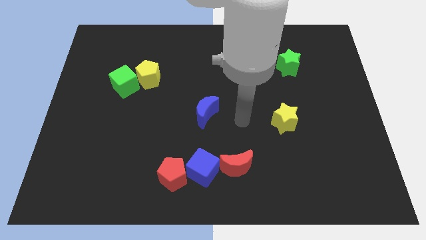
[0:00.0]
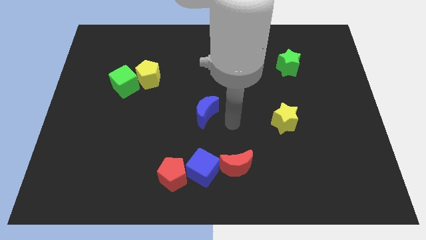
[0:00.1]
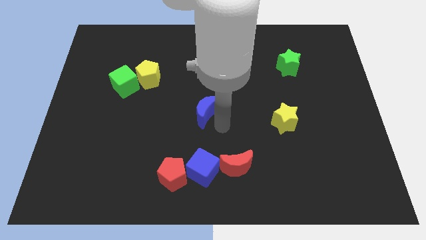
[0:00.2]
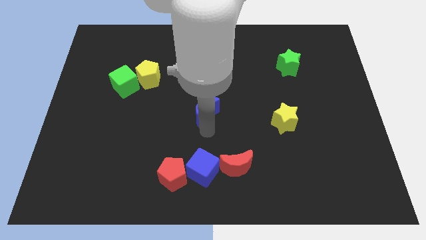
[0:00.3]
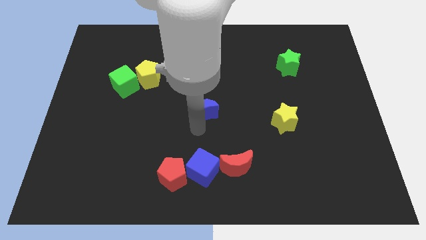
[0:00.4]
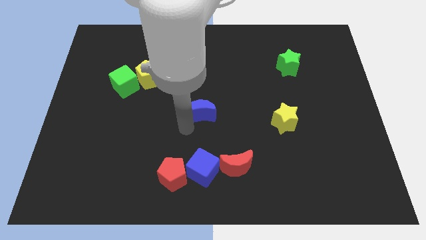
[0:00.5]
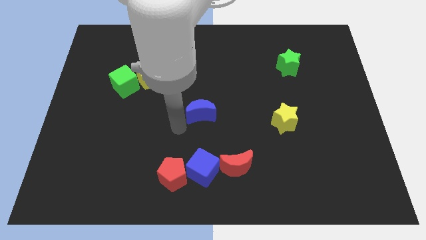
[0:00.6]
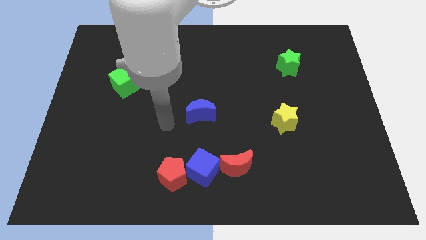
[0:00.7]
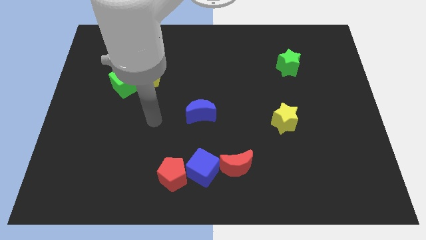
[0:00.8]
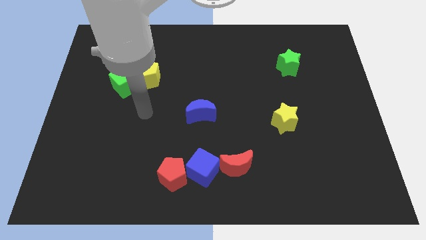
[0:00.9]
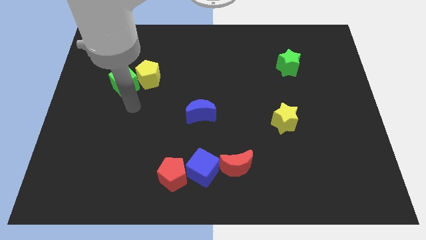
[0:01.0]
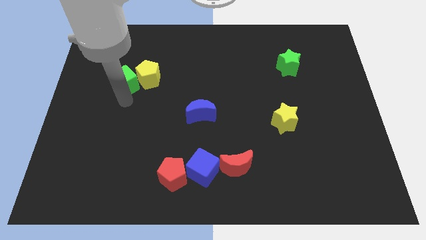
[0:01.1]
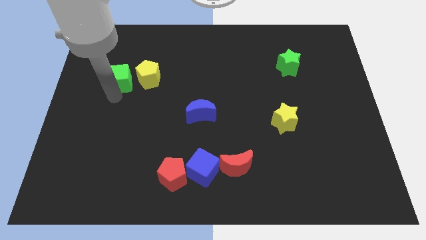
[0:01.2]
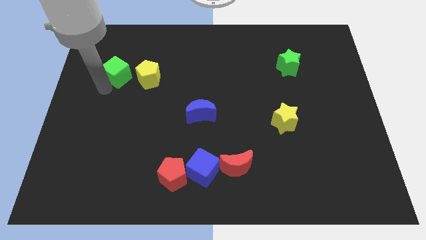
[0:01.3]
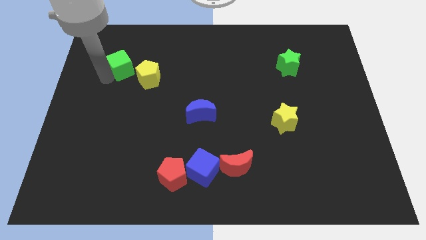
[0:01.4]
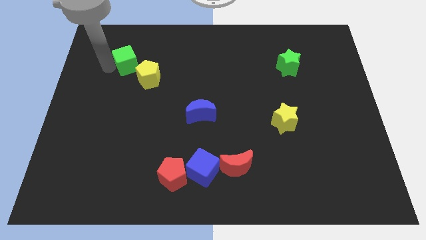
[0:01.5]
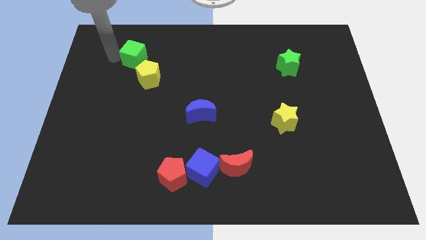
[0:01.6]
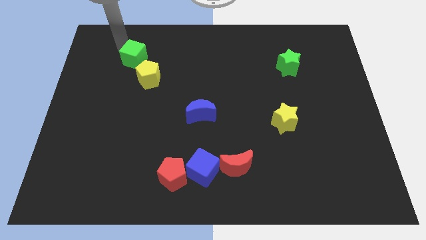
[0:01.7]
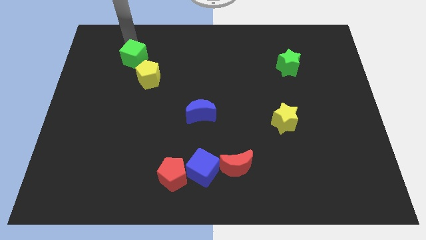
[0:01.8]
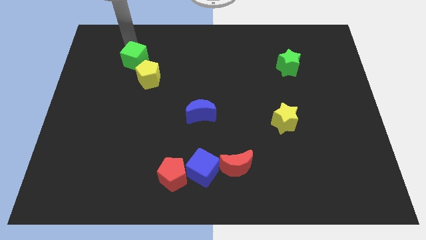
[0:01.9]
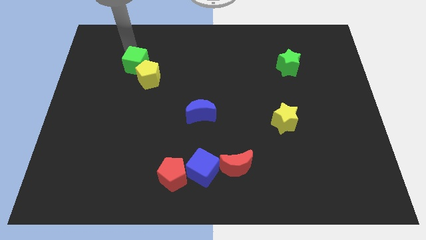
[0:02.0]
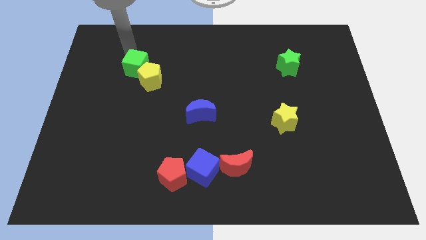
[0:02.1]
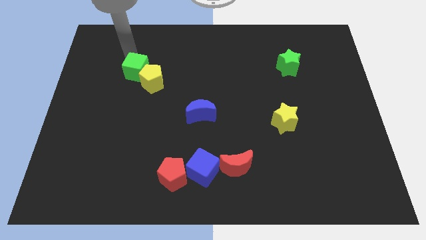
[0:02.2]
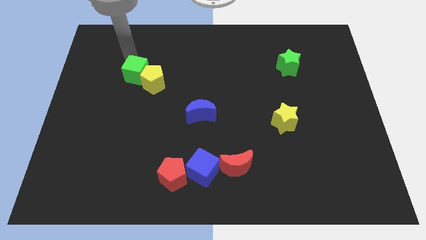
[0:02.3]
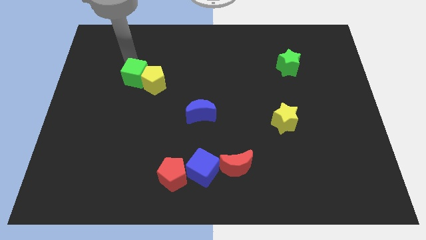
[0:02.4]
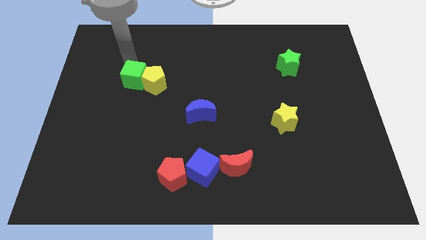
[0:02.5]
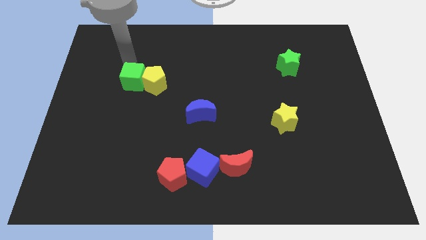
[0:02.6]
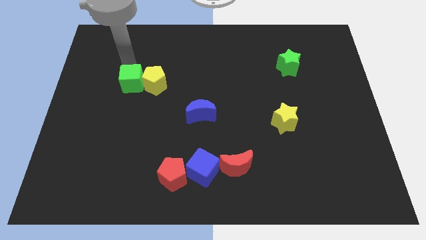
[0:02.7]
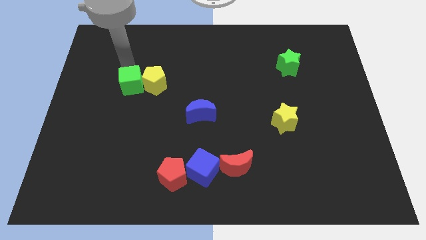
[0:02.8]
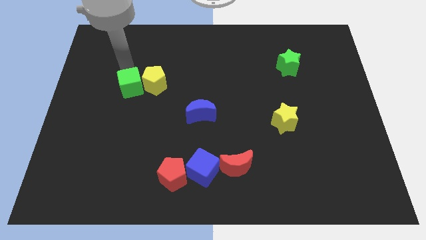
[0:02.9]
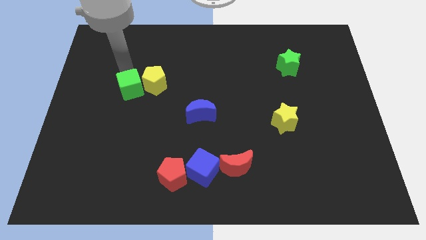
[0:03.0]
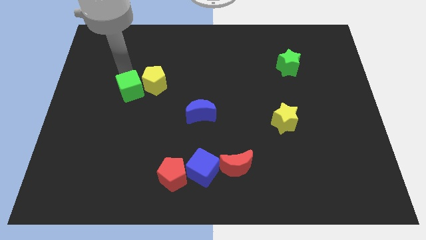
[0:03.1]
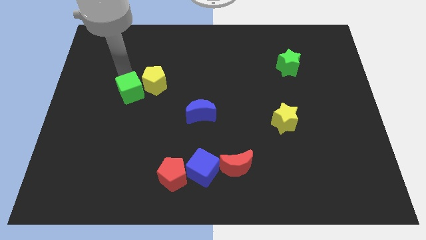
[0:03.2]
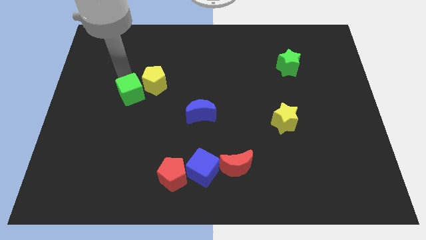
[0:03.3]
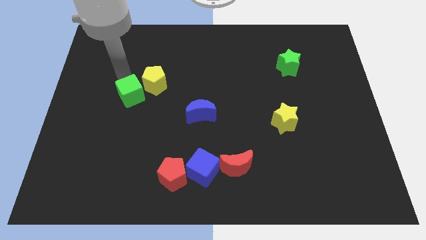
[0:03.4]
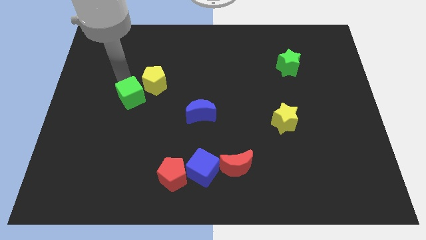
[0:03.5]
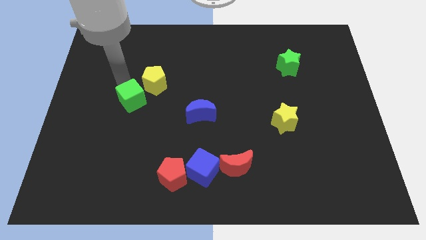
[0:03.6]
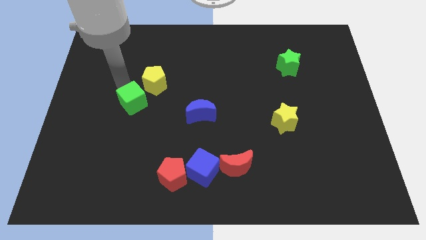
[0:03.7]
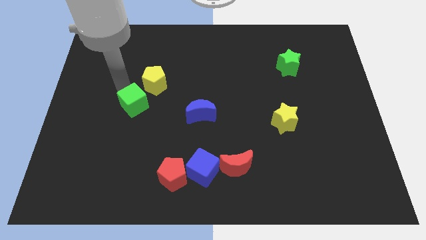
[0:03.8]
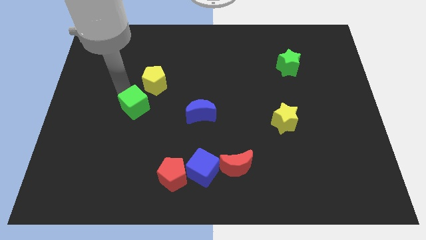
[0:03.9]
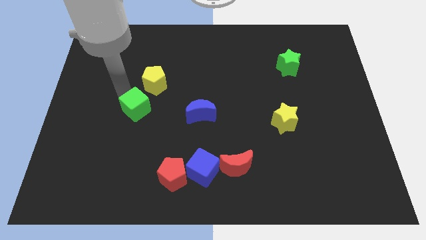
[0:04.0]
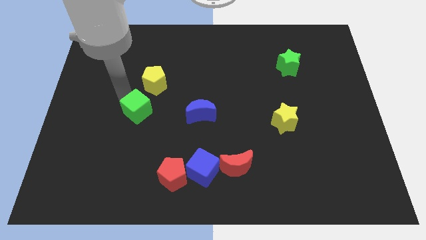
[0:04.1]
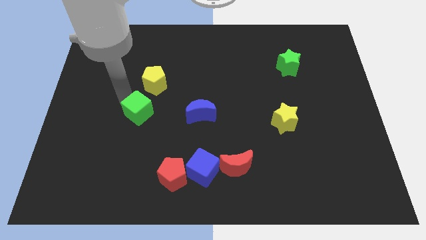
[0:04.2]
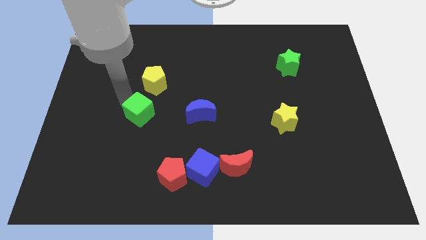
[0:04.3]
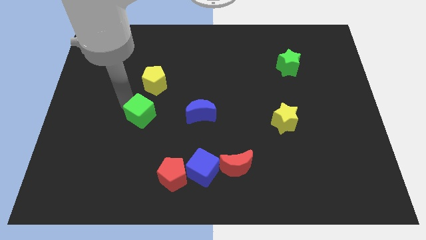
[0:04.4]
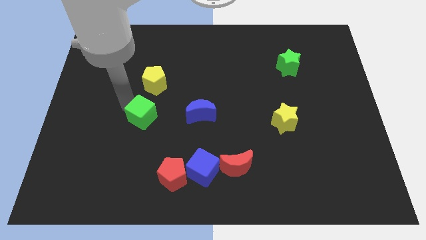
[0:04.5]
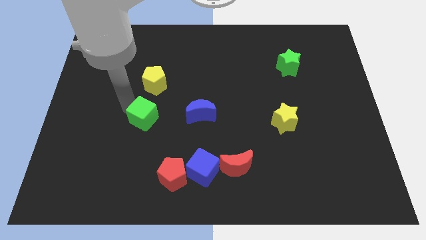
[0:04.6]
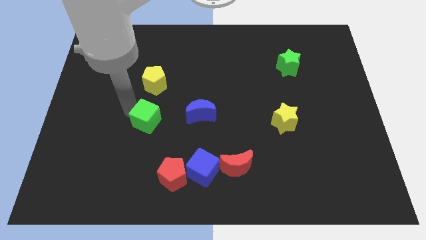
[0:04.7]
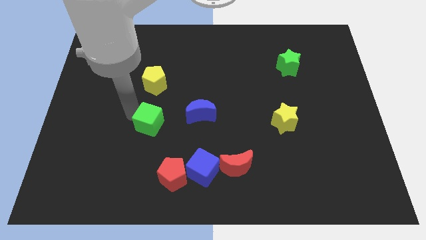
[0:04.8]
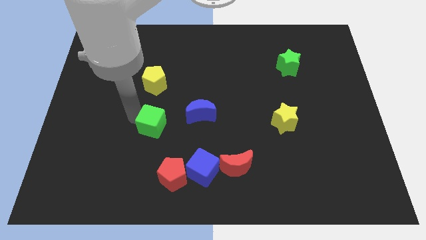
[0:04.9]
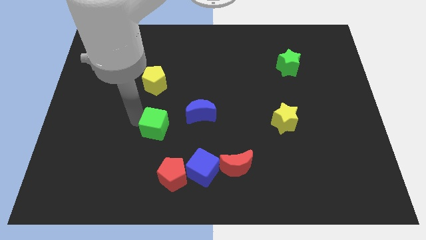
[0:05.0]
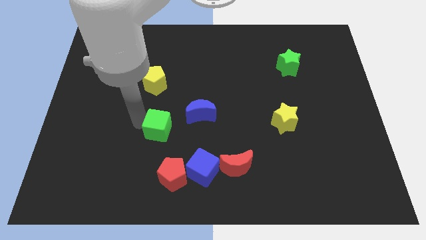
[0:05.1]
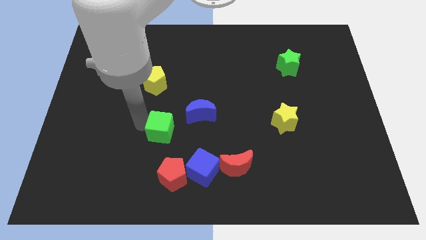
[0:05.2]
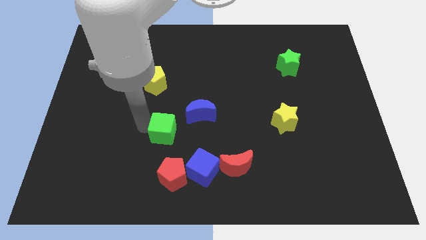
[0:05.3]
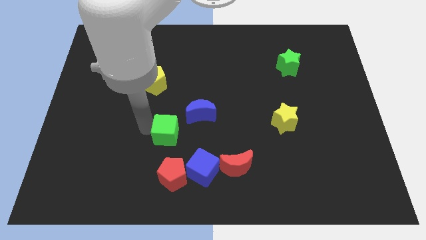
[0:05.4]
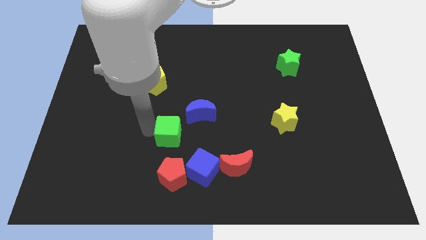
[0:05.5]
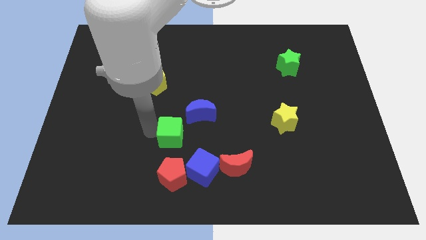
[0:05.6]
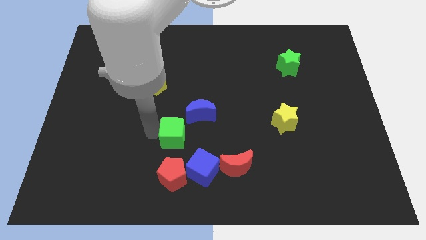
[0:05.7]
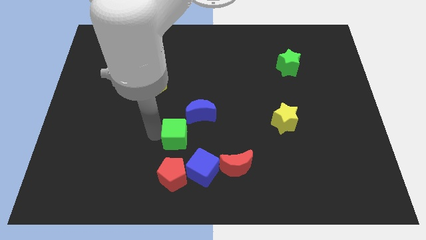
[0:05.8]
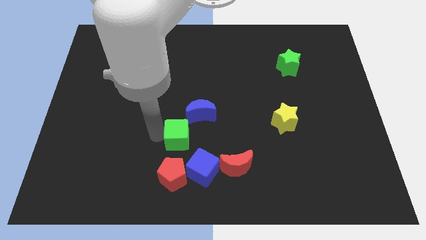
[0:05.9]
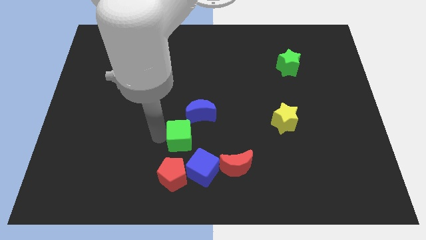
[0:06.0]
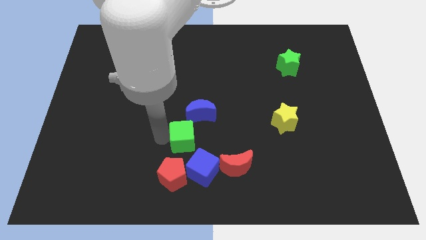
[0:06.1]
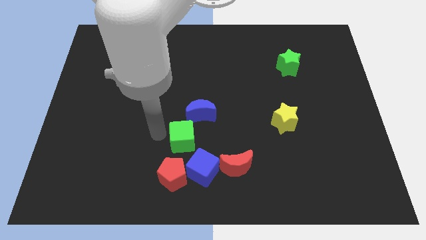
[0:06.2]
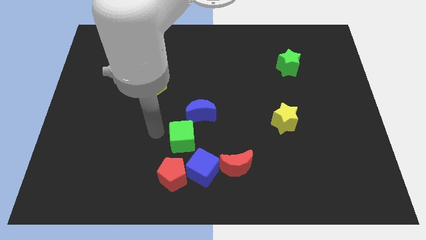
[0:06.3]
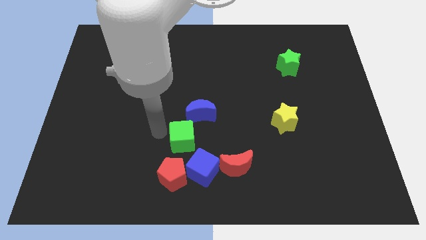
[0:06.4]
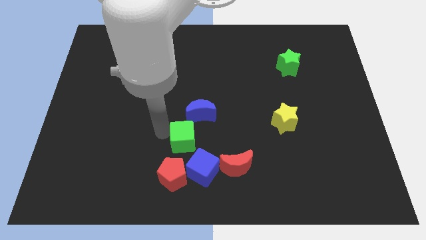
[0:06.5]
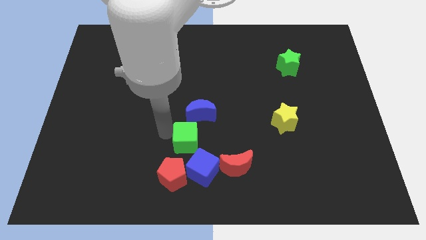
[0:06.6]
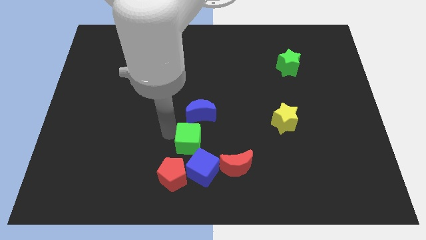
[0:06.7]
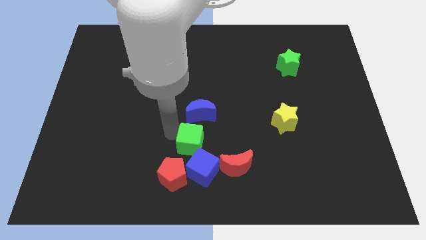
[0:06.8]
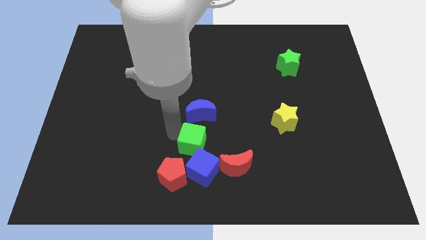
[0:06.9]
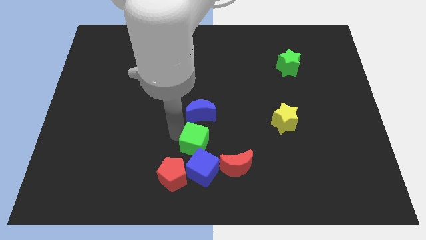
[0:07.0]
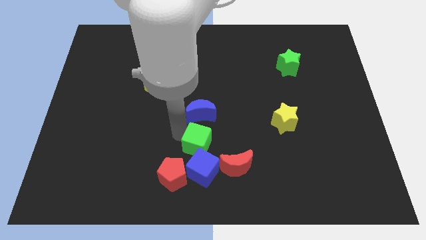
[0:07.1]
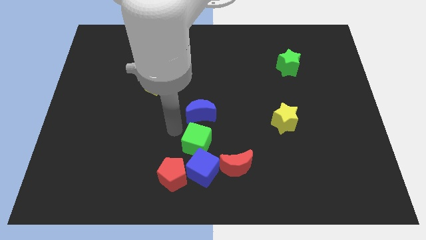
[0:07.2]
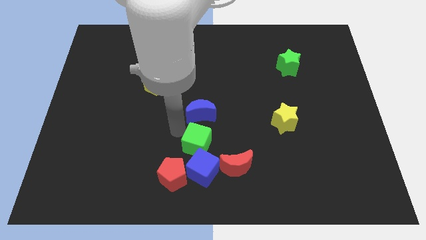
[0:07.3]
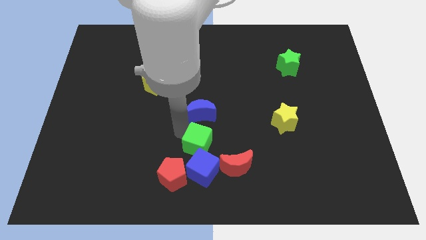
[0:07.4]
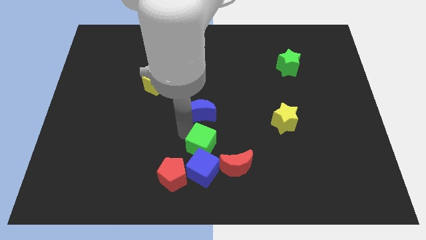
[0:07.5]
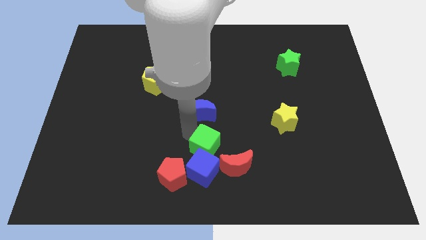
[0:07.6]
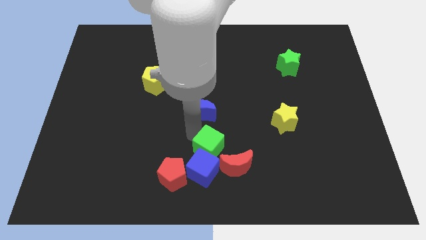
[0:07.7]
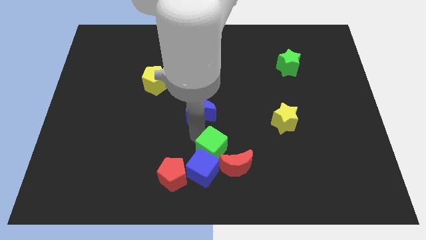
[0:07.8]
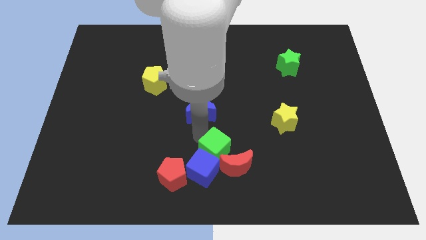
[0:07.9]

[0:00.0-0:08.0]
move the green cube towards the red moon
